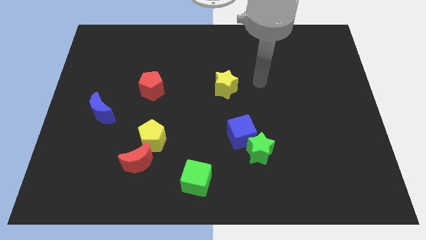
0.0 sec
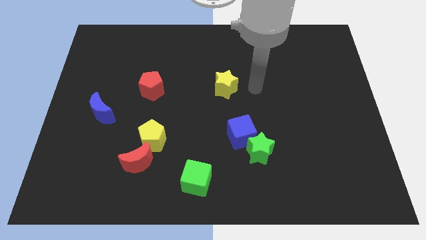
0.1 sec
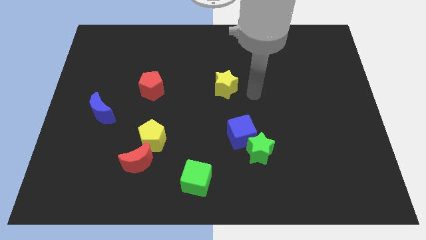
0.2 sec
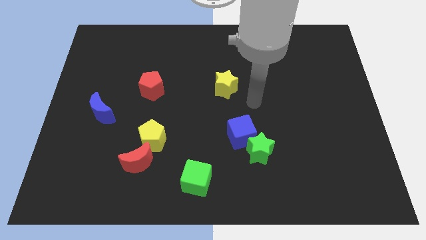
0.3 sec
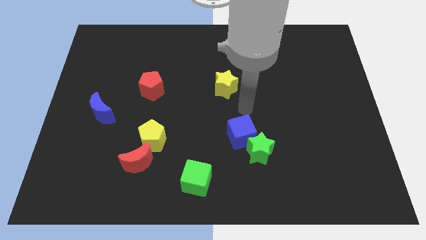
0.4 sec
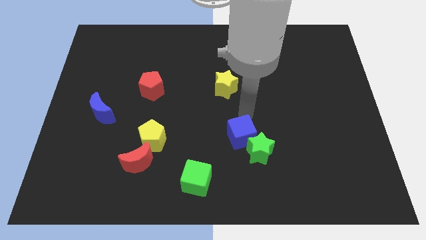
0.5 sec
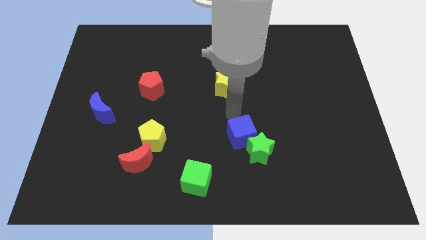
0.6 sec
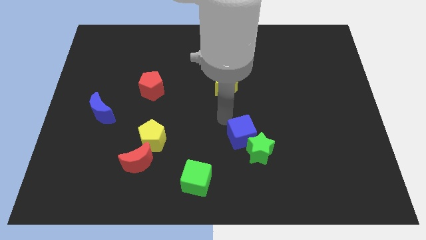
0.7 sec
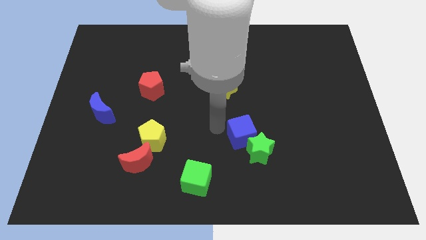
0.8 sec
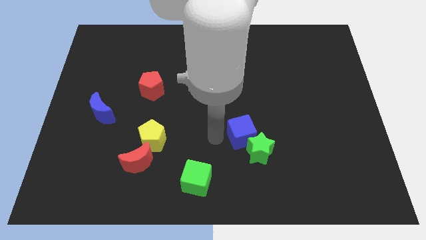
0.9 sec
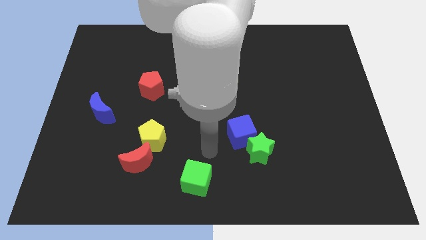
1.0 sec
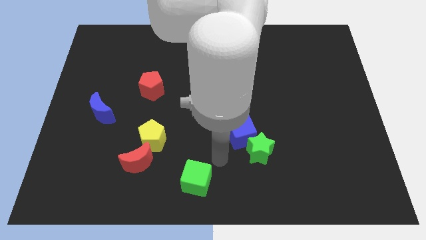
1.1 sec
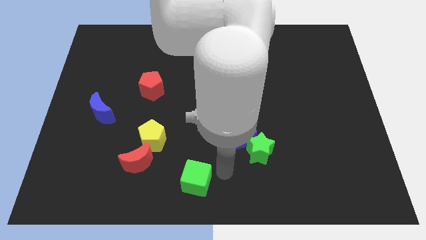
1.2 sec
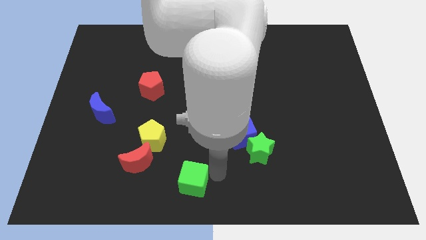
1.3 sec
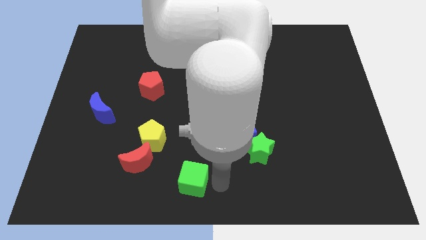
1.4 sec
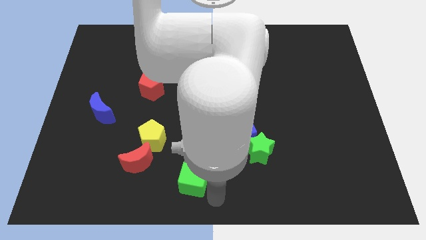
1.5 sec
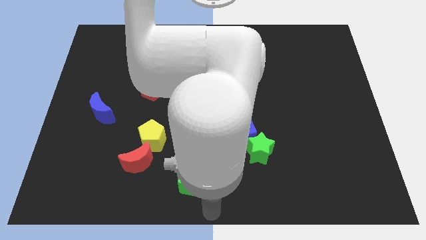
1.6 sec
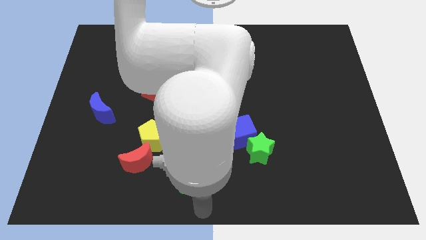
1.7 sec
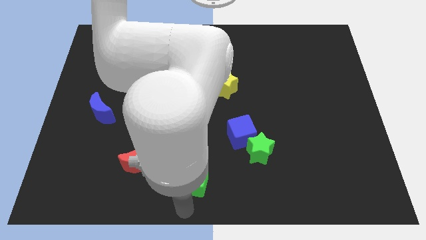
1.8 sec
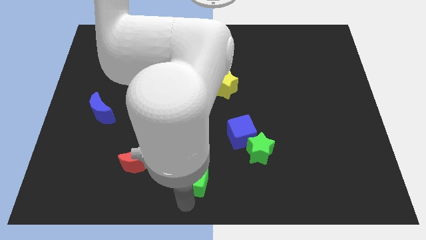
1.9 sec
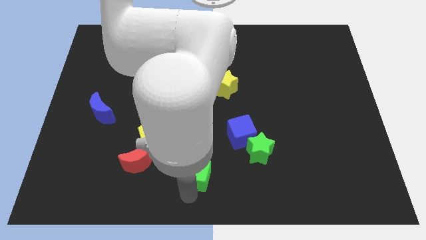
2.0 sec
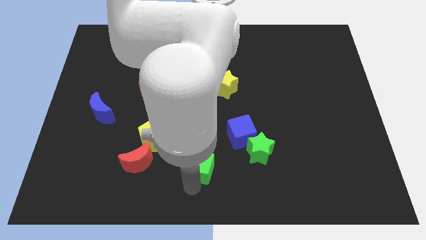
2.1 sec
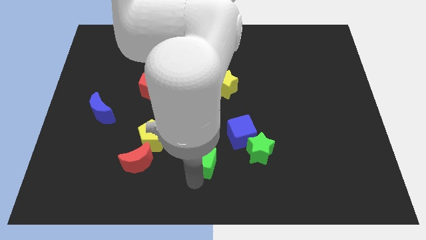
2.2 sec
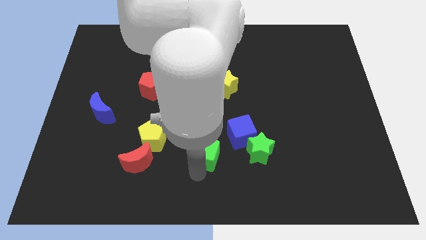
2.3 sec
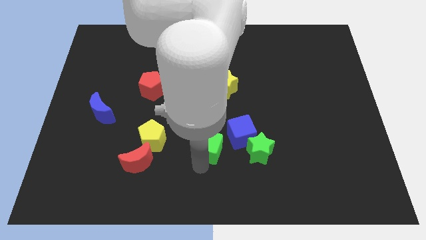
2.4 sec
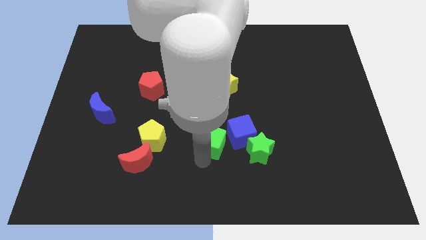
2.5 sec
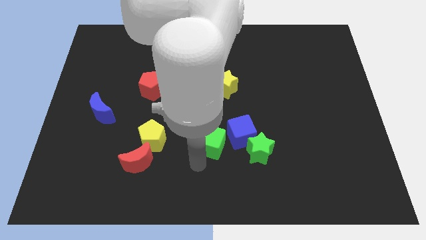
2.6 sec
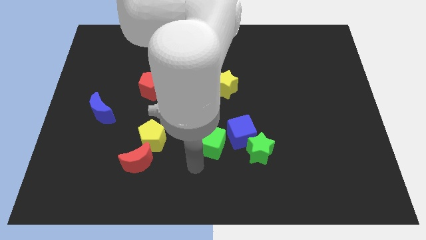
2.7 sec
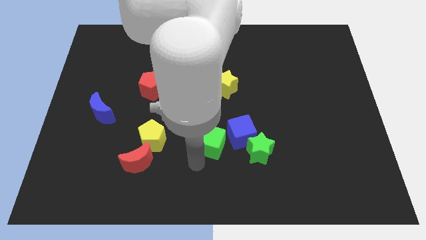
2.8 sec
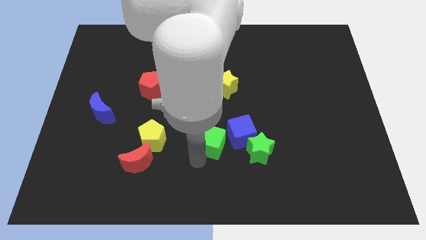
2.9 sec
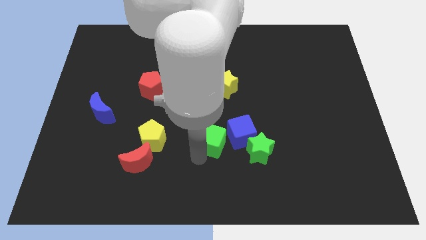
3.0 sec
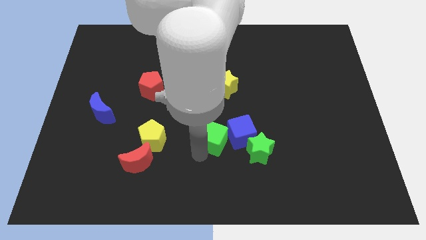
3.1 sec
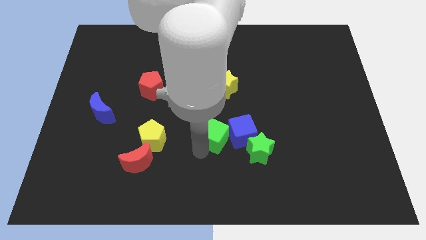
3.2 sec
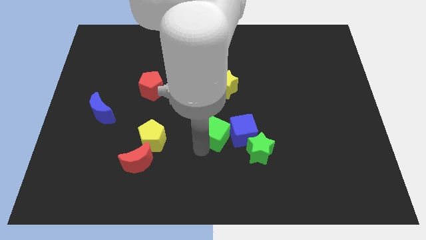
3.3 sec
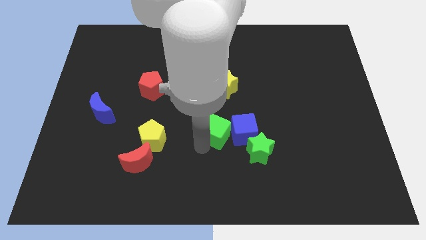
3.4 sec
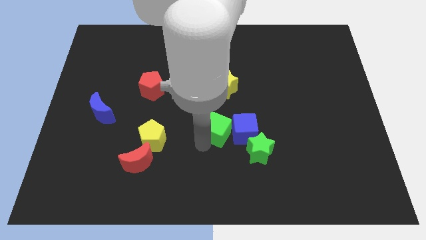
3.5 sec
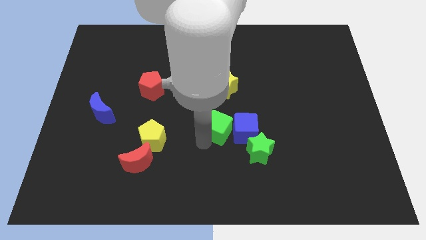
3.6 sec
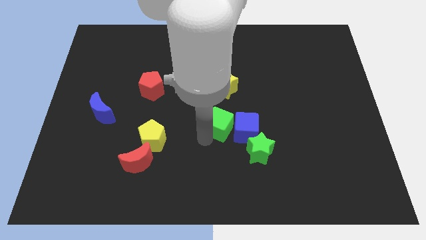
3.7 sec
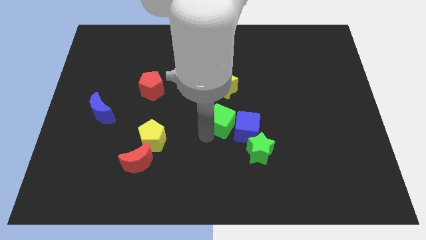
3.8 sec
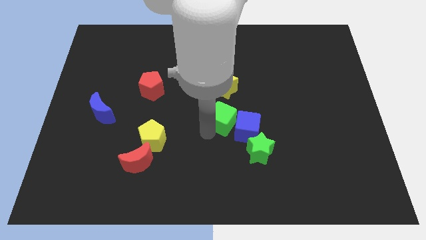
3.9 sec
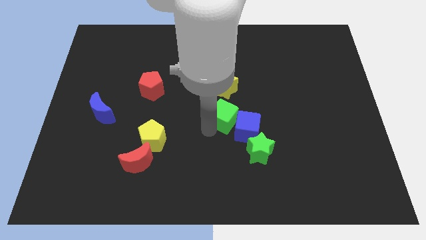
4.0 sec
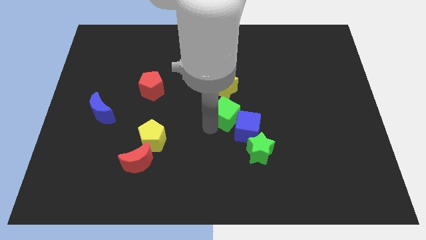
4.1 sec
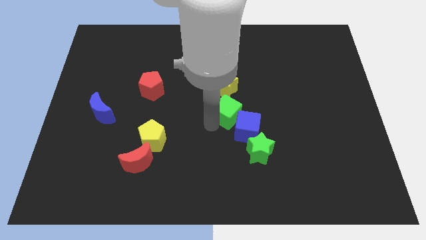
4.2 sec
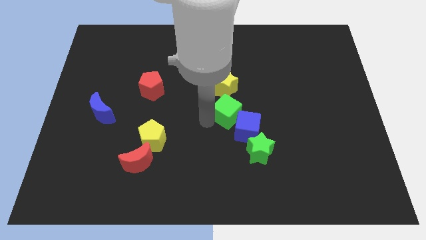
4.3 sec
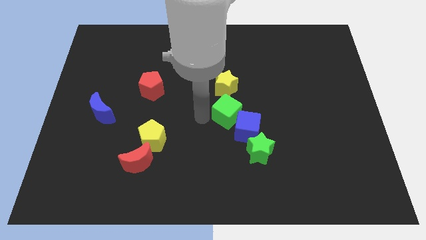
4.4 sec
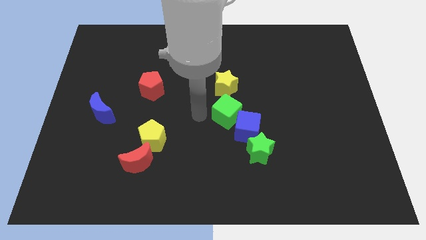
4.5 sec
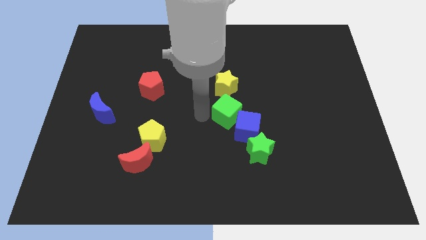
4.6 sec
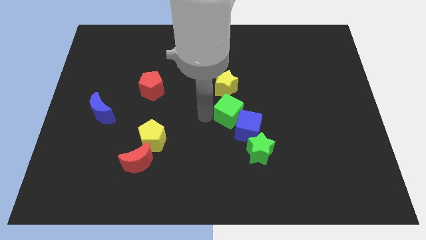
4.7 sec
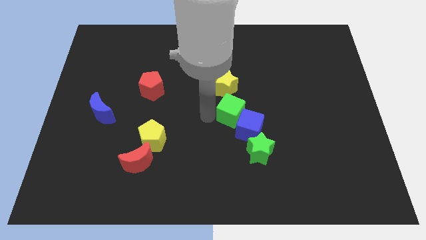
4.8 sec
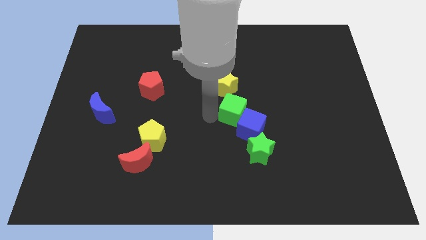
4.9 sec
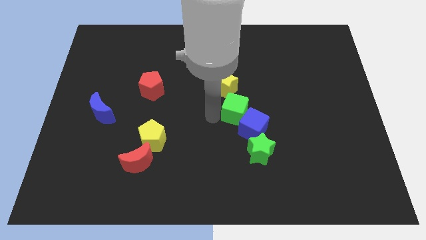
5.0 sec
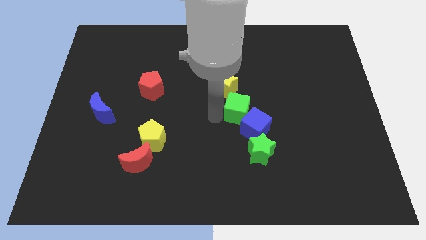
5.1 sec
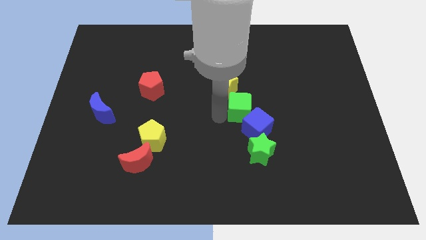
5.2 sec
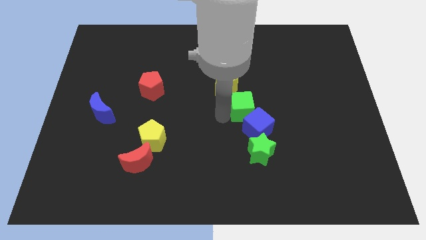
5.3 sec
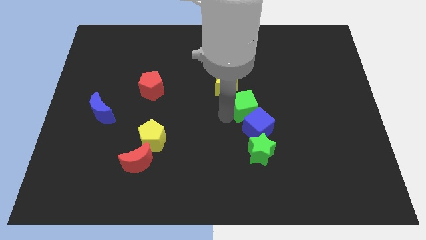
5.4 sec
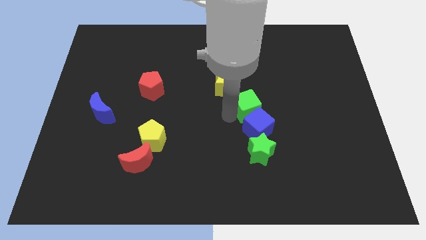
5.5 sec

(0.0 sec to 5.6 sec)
slide the green cube up and right diagonally

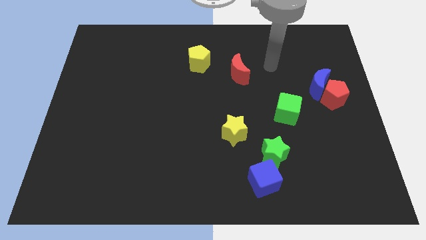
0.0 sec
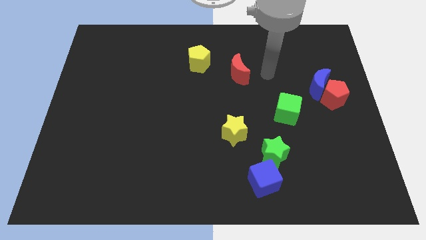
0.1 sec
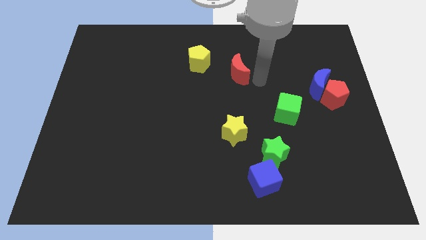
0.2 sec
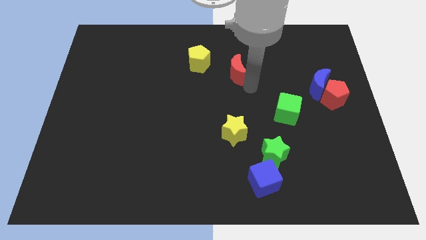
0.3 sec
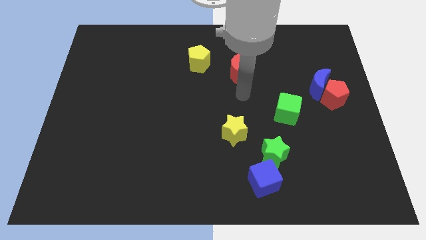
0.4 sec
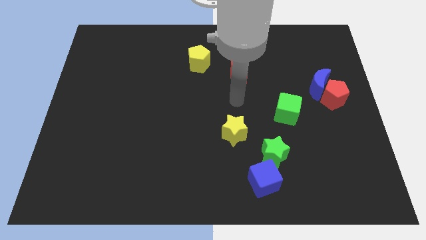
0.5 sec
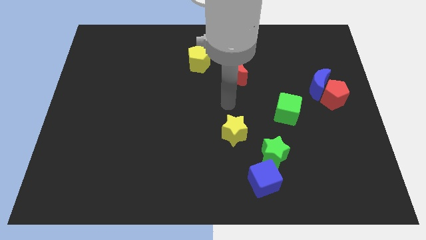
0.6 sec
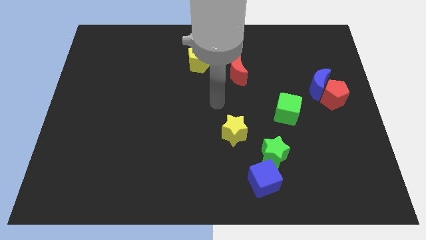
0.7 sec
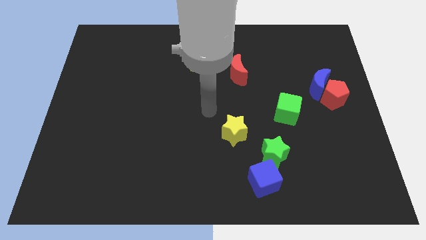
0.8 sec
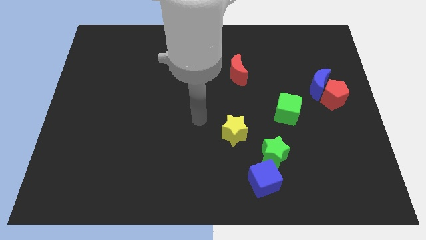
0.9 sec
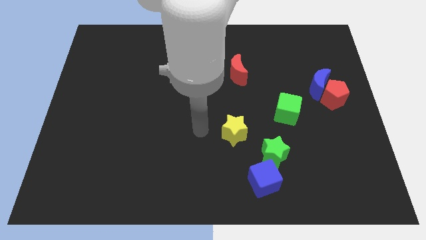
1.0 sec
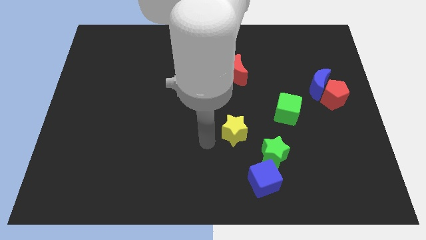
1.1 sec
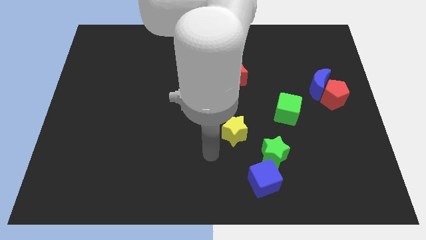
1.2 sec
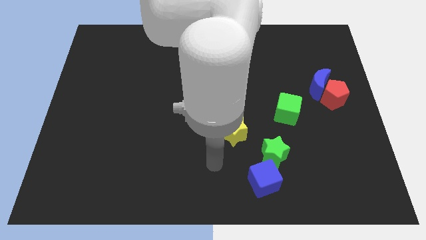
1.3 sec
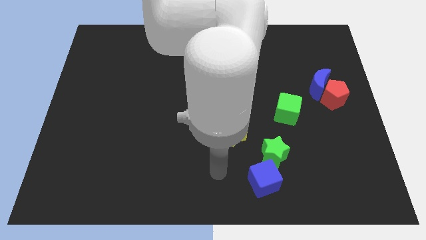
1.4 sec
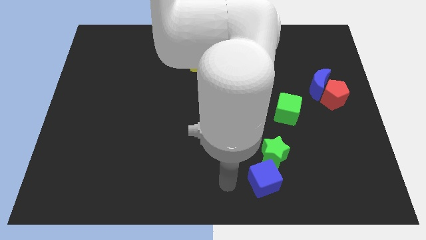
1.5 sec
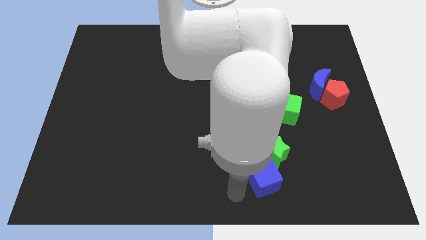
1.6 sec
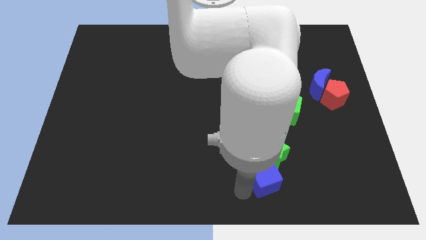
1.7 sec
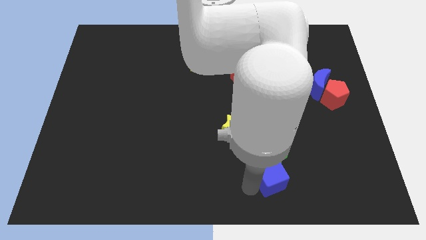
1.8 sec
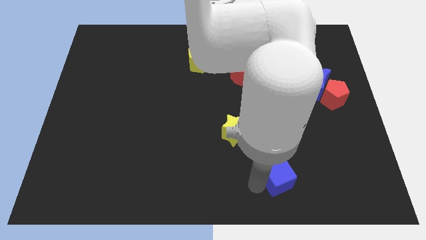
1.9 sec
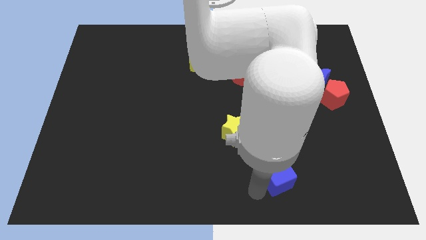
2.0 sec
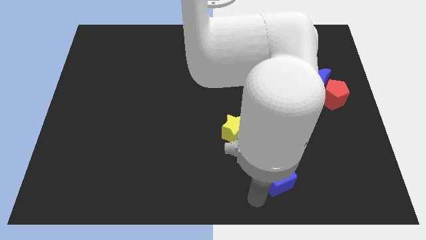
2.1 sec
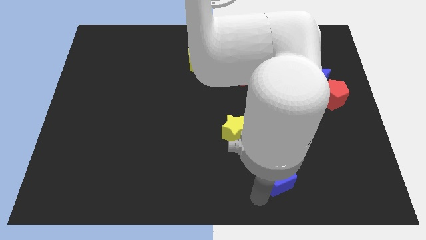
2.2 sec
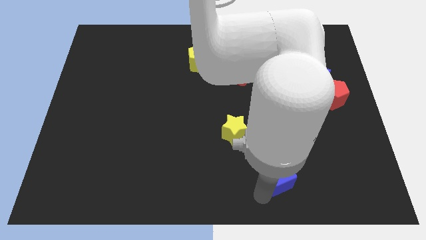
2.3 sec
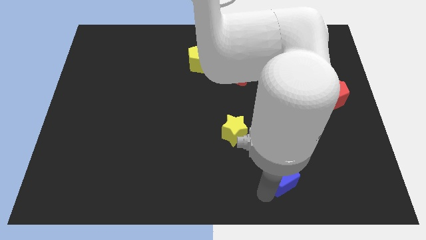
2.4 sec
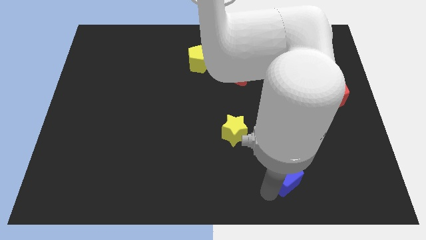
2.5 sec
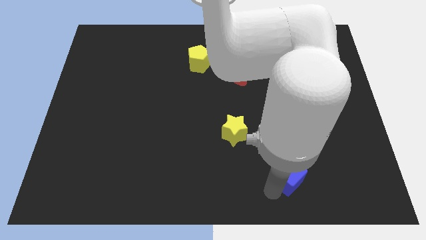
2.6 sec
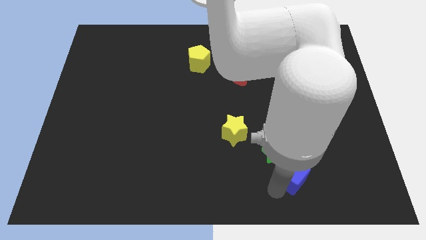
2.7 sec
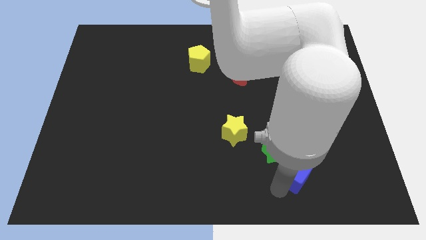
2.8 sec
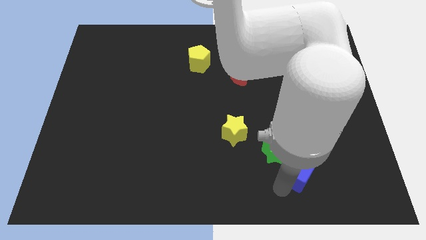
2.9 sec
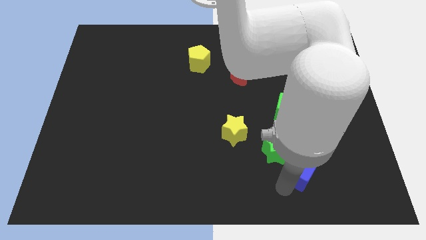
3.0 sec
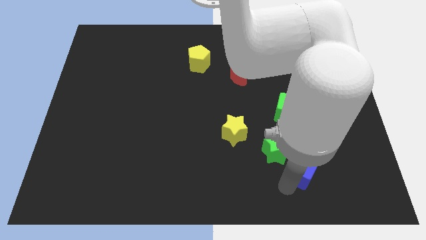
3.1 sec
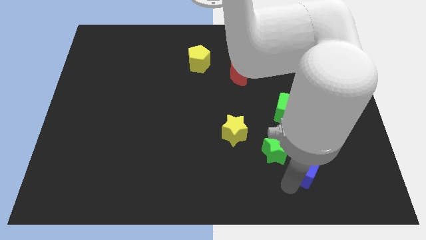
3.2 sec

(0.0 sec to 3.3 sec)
move the blue cube a little up and then to the right
